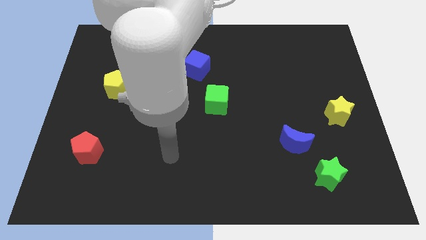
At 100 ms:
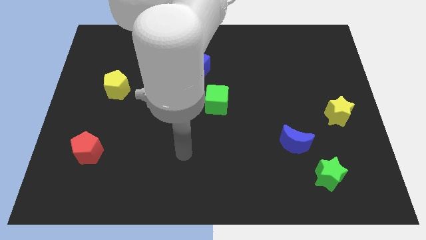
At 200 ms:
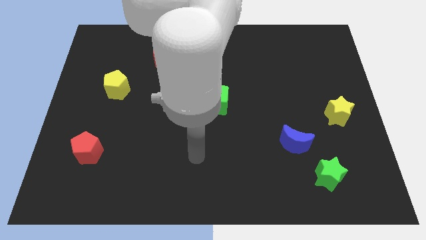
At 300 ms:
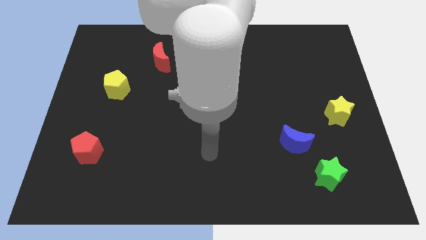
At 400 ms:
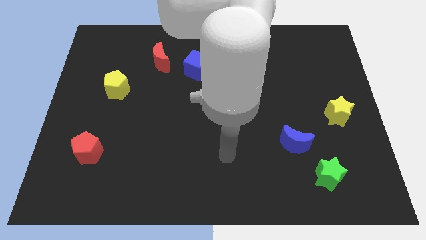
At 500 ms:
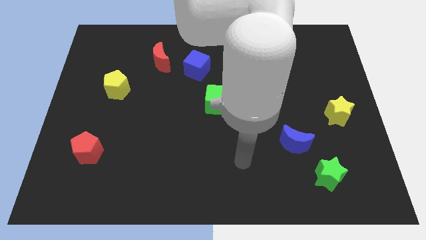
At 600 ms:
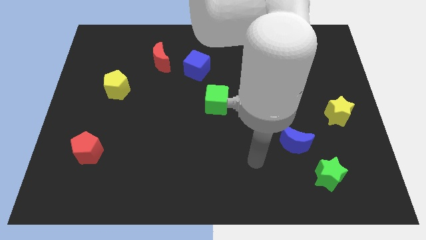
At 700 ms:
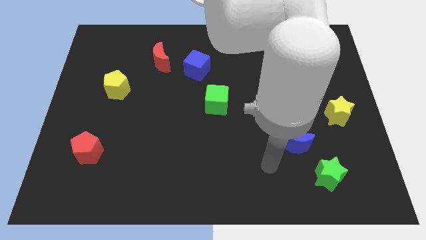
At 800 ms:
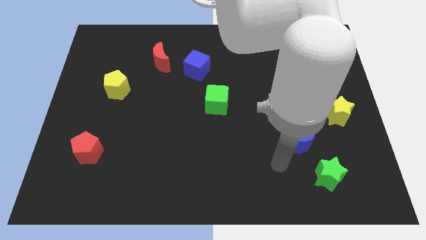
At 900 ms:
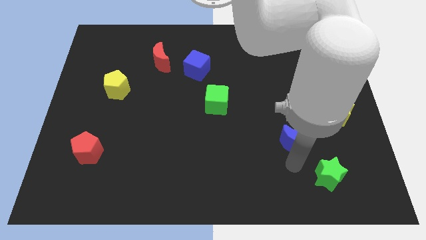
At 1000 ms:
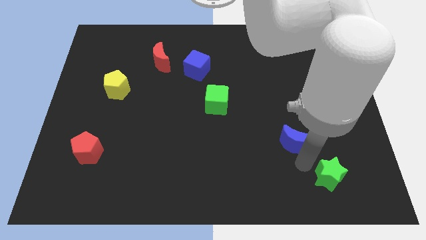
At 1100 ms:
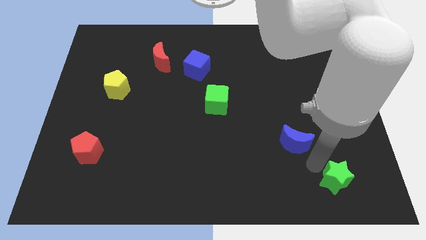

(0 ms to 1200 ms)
move the blue moon away from the green star

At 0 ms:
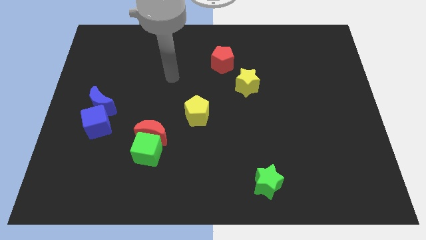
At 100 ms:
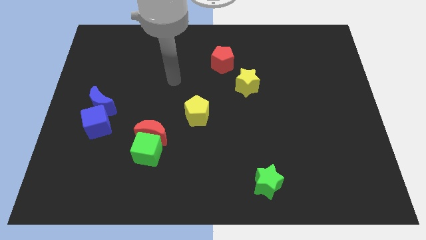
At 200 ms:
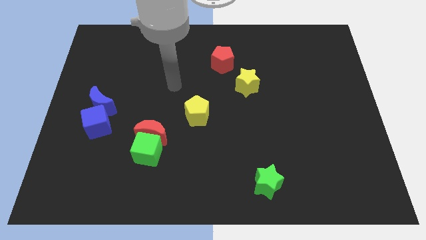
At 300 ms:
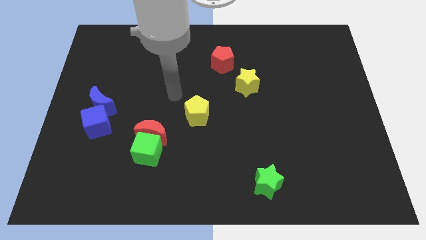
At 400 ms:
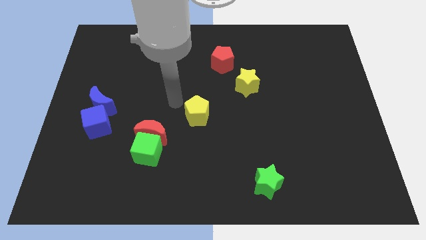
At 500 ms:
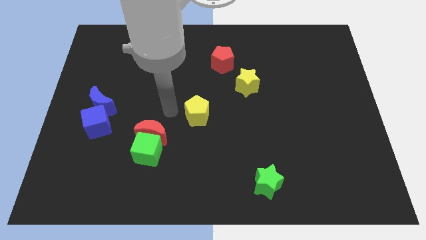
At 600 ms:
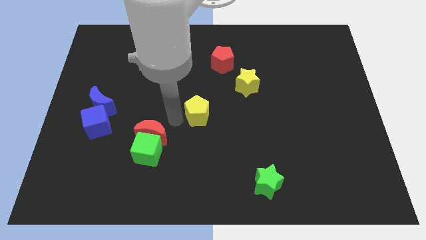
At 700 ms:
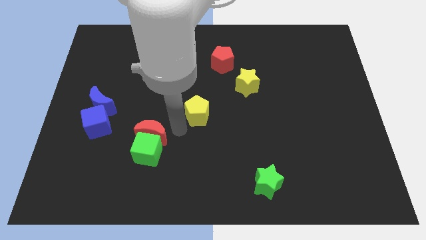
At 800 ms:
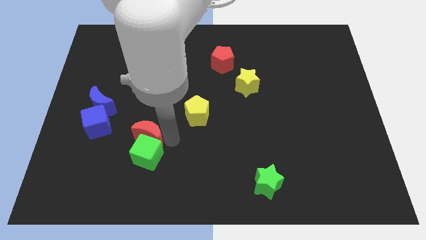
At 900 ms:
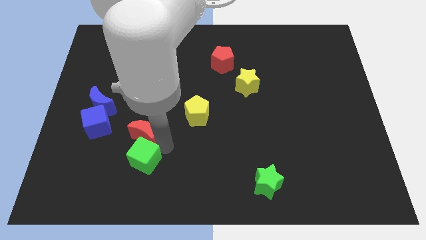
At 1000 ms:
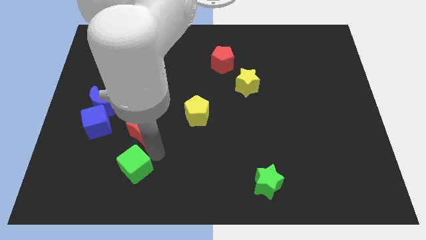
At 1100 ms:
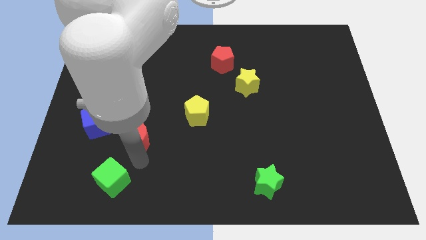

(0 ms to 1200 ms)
move the red moon away from the green cube

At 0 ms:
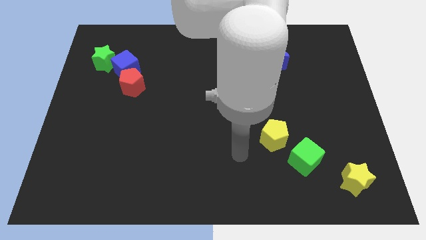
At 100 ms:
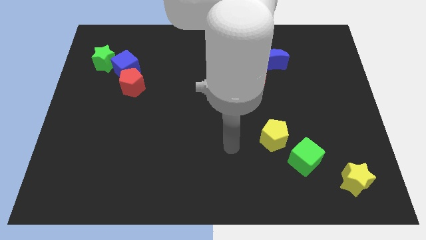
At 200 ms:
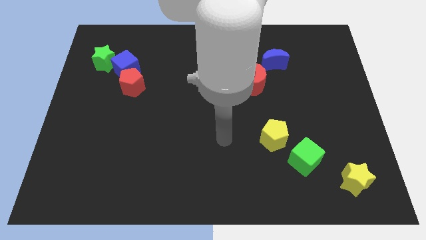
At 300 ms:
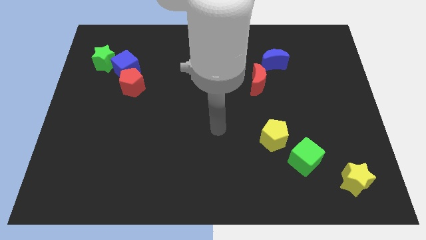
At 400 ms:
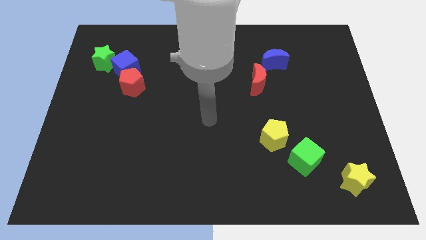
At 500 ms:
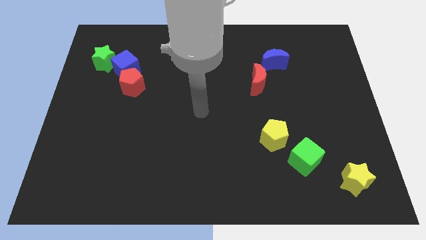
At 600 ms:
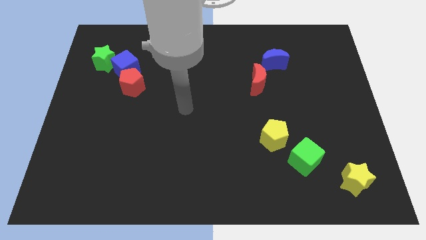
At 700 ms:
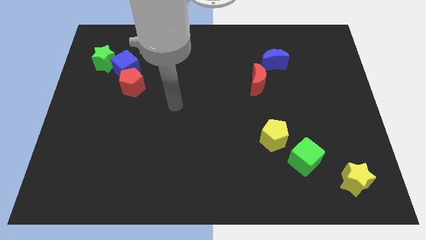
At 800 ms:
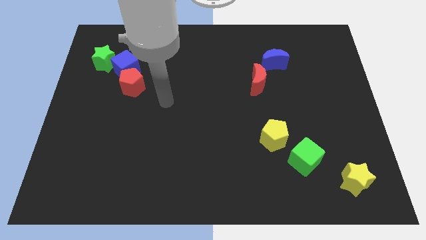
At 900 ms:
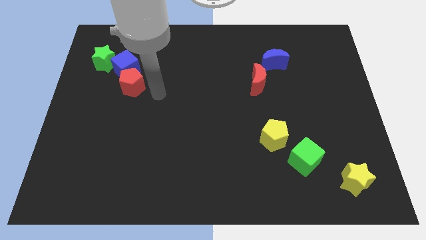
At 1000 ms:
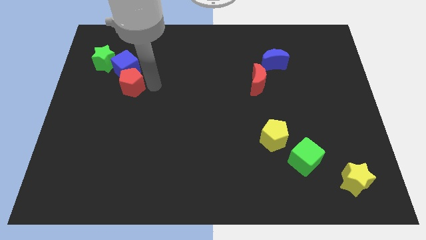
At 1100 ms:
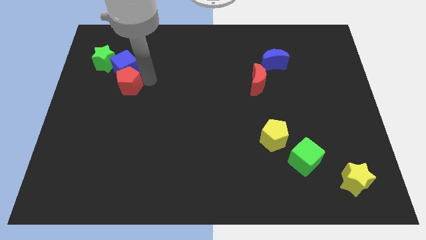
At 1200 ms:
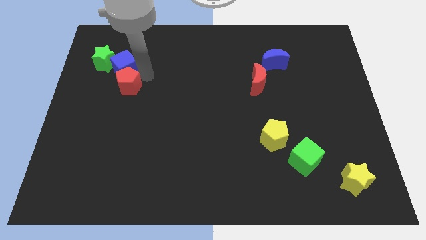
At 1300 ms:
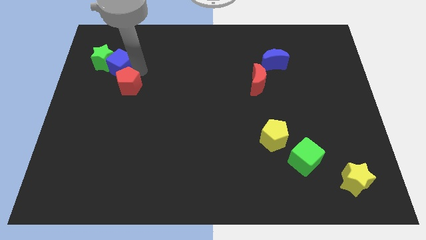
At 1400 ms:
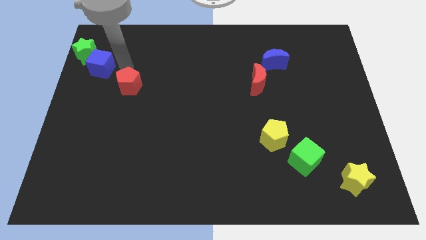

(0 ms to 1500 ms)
separate the red pentagon from the blue cube

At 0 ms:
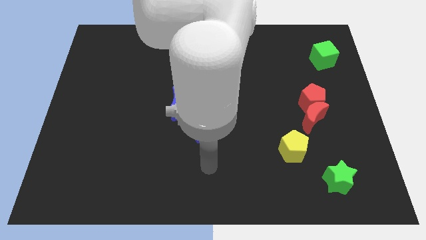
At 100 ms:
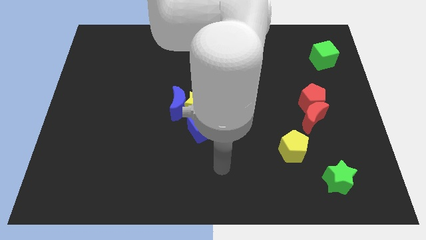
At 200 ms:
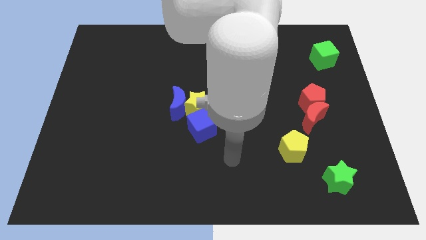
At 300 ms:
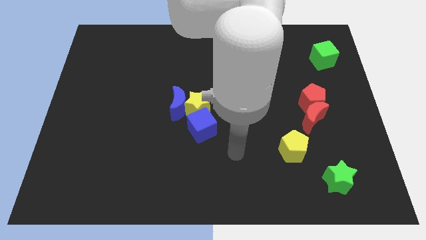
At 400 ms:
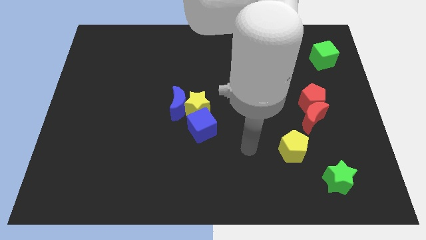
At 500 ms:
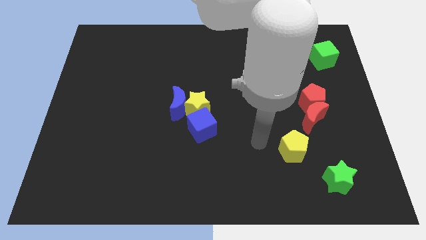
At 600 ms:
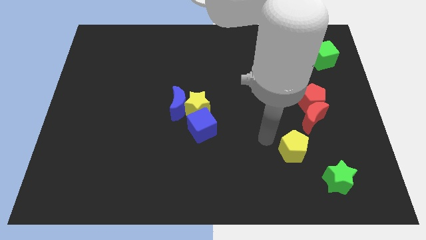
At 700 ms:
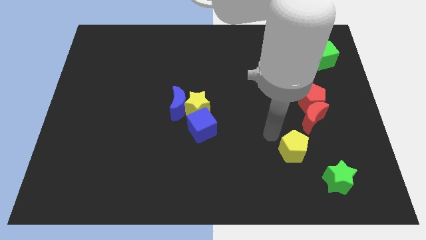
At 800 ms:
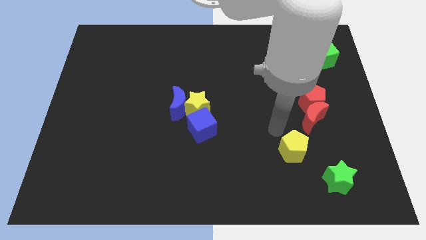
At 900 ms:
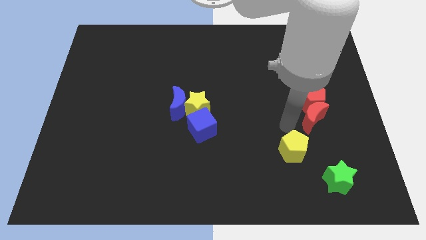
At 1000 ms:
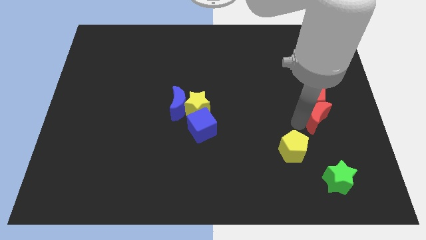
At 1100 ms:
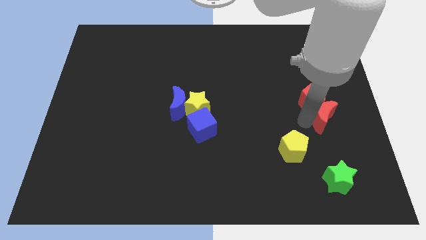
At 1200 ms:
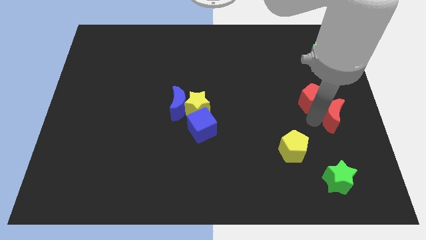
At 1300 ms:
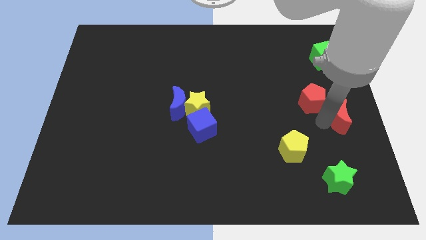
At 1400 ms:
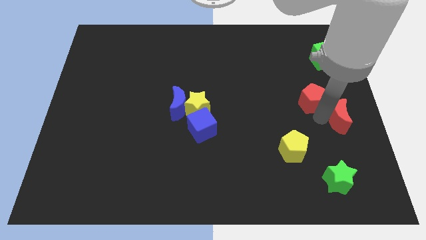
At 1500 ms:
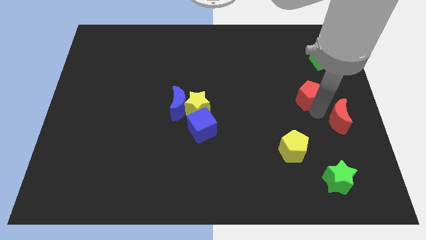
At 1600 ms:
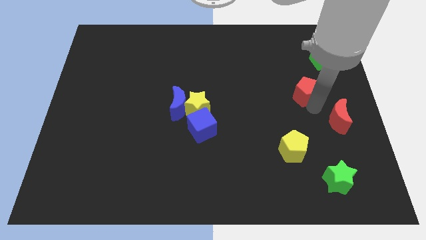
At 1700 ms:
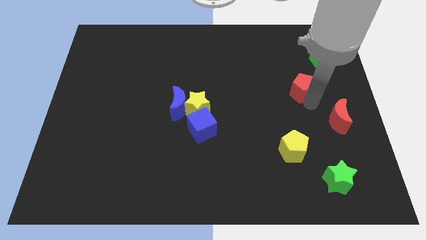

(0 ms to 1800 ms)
move the red pentagon away from the red moon

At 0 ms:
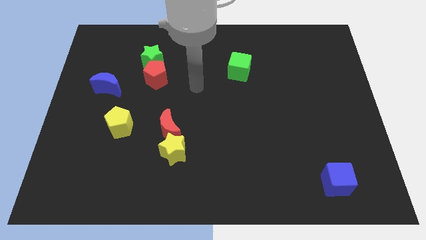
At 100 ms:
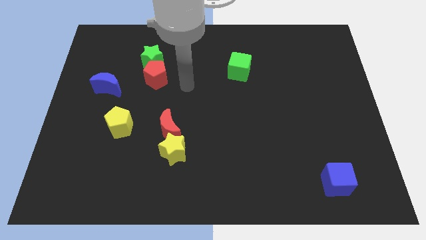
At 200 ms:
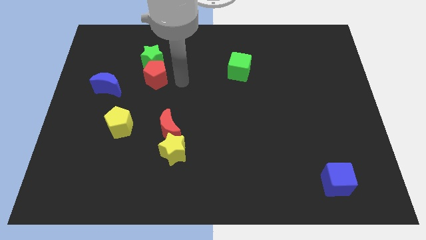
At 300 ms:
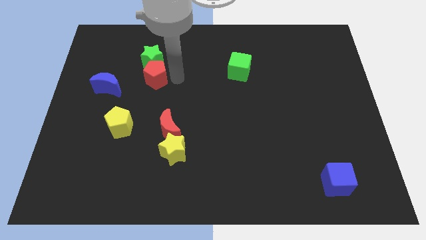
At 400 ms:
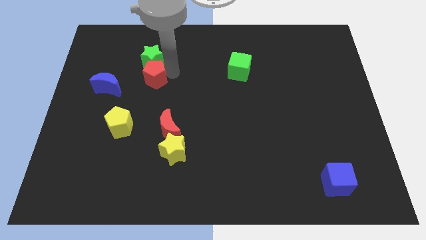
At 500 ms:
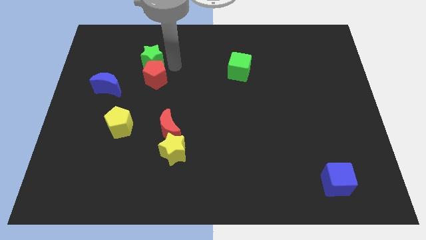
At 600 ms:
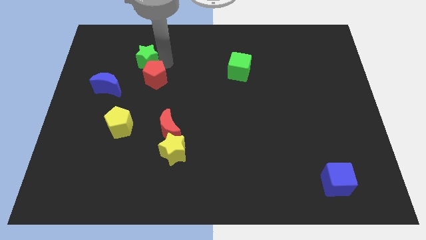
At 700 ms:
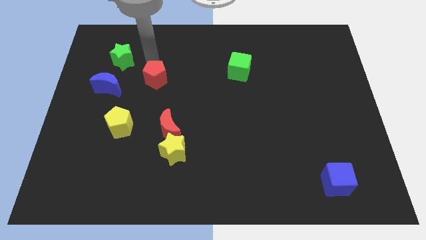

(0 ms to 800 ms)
separate the red pentagon from the green star

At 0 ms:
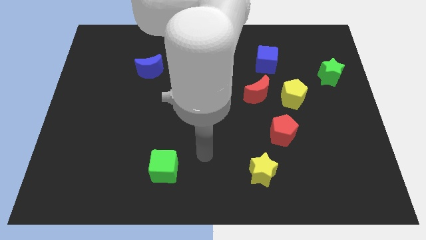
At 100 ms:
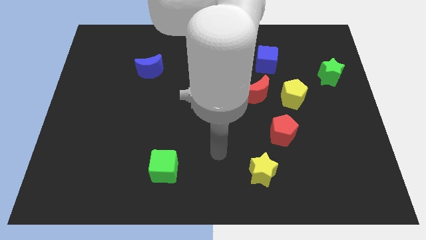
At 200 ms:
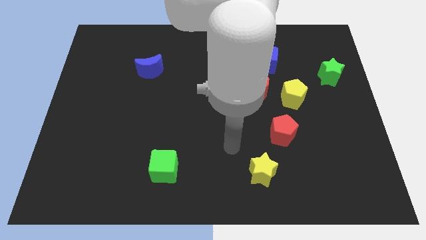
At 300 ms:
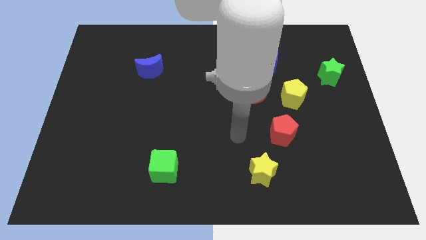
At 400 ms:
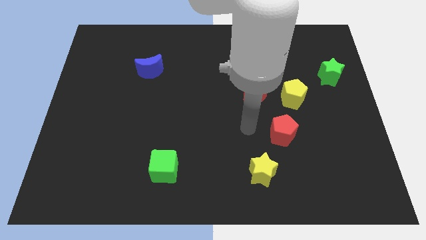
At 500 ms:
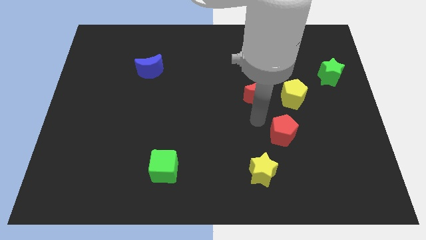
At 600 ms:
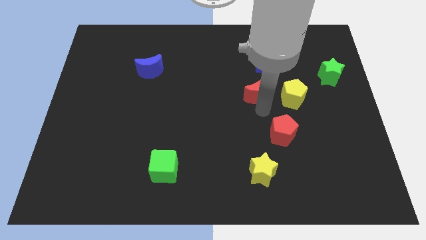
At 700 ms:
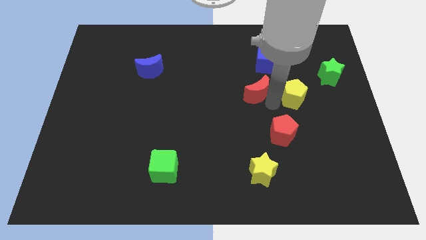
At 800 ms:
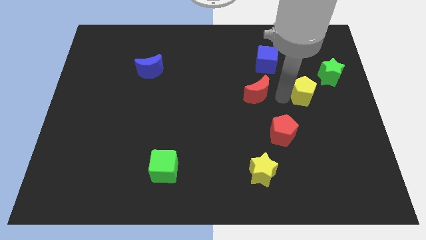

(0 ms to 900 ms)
separate the red moon from the yellow pentagon

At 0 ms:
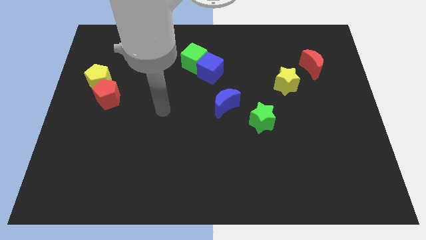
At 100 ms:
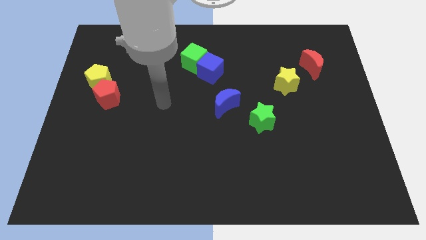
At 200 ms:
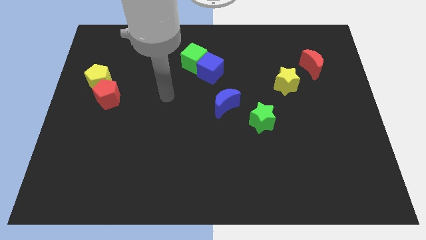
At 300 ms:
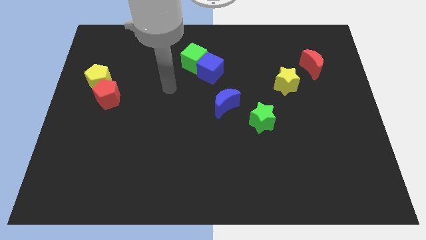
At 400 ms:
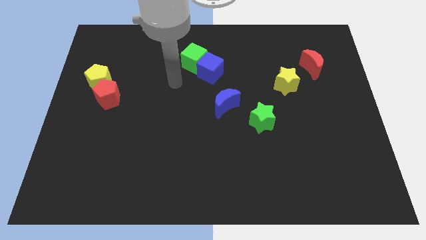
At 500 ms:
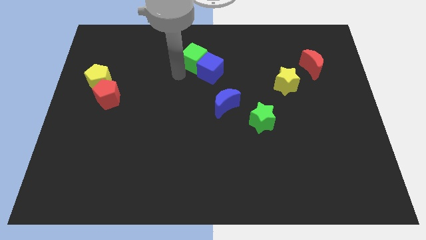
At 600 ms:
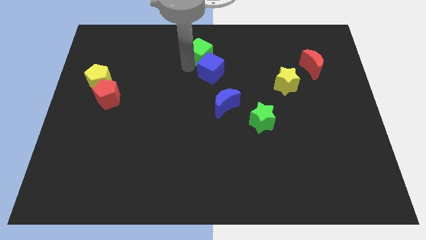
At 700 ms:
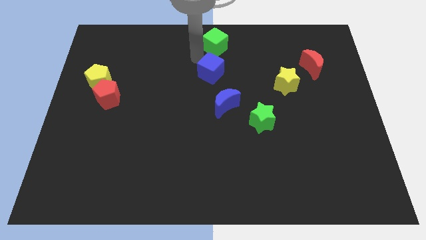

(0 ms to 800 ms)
pull the blue cube apart from the green cube

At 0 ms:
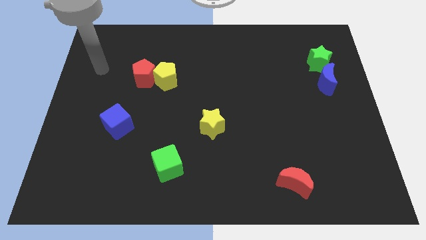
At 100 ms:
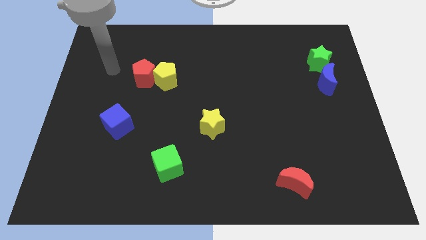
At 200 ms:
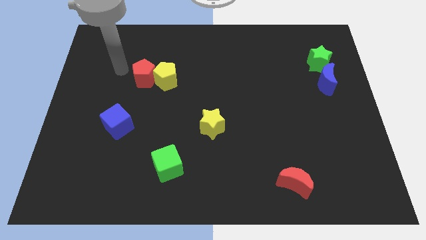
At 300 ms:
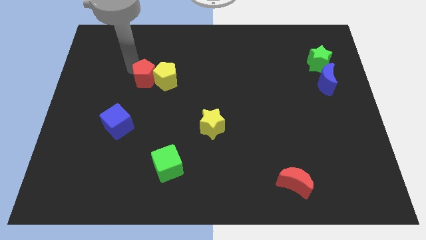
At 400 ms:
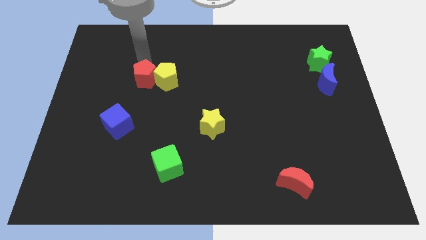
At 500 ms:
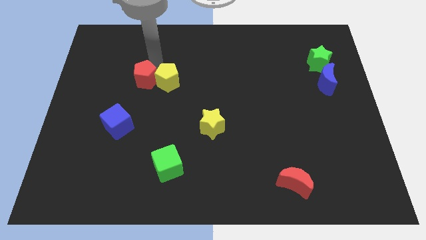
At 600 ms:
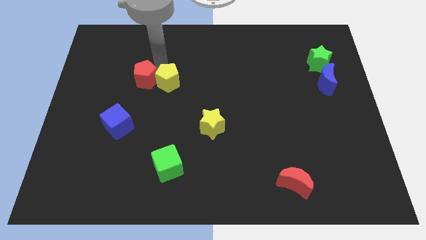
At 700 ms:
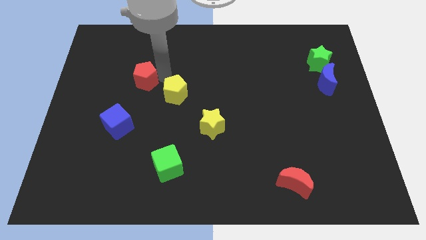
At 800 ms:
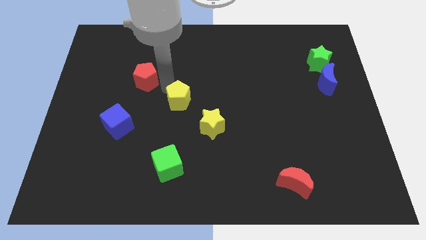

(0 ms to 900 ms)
move the red pentagon away from the yellow pentagon

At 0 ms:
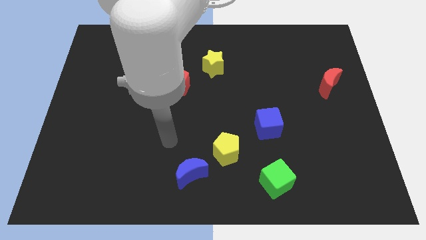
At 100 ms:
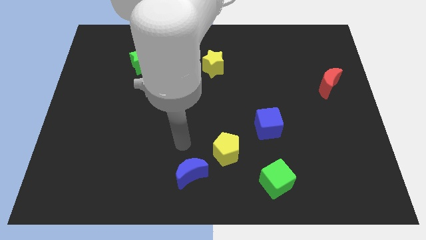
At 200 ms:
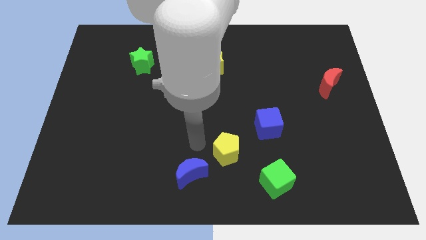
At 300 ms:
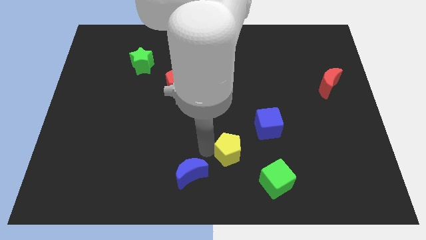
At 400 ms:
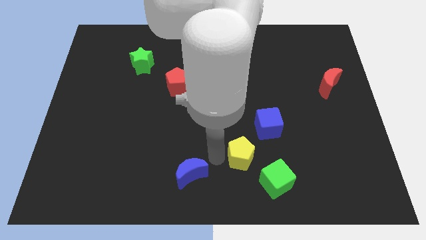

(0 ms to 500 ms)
separate the blue moon from the yellow pentagon
